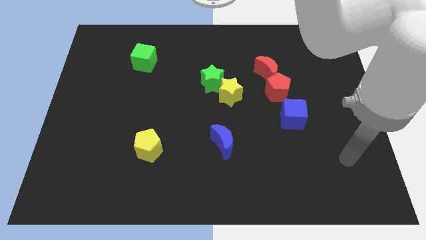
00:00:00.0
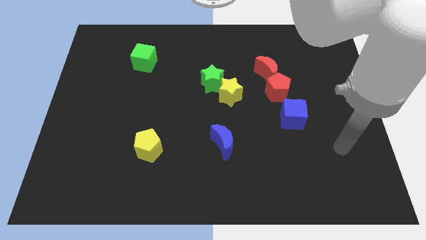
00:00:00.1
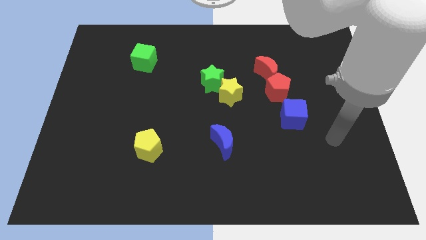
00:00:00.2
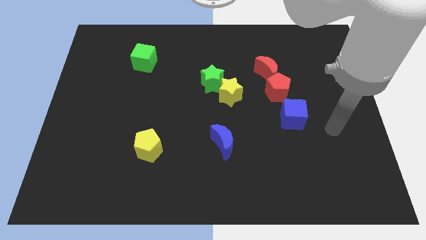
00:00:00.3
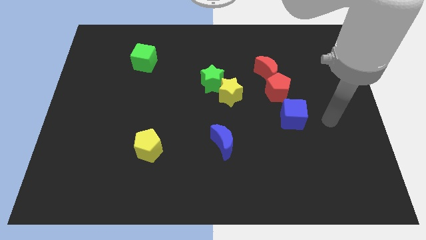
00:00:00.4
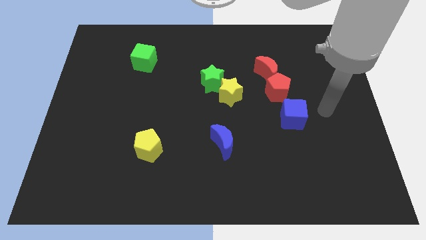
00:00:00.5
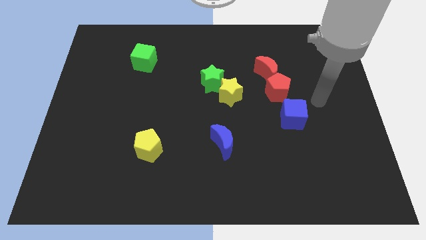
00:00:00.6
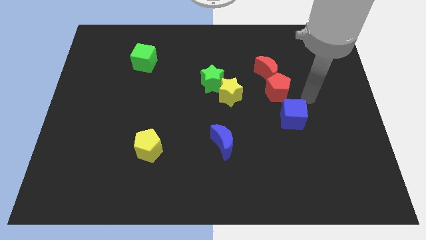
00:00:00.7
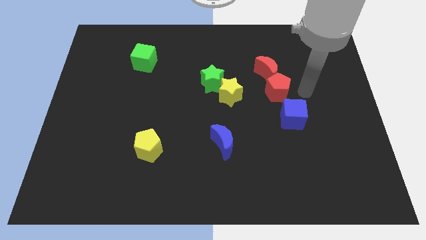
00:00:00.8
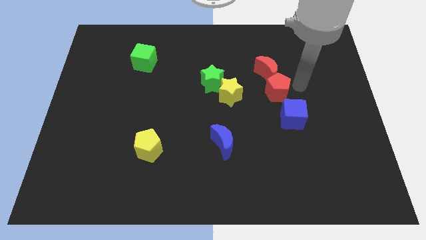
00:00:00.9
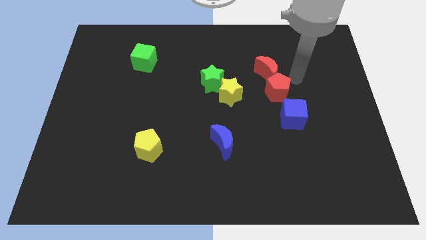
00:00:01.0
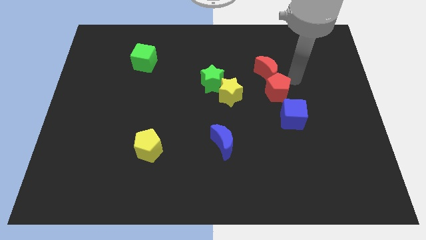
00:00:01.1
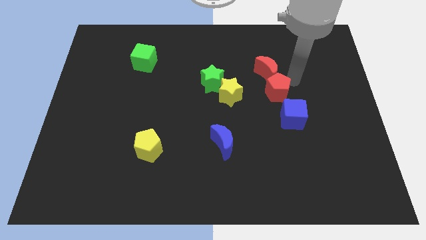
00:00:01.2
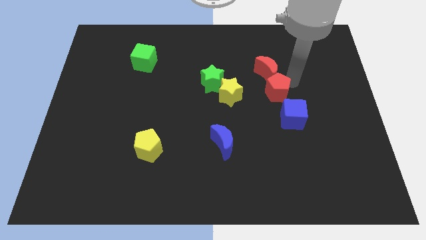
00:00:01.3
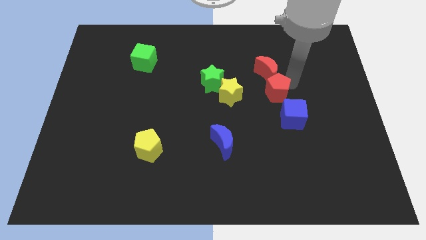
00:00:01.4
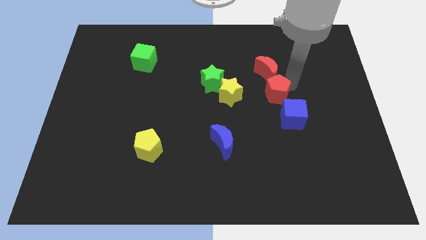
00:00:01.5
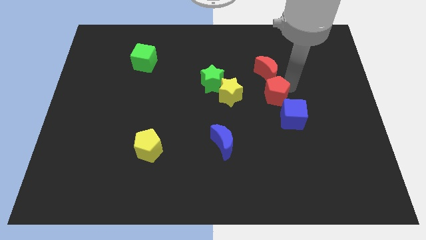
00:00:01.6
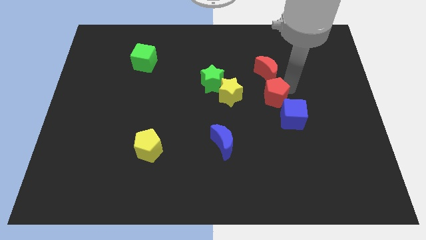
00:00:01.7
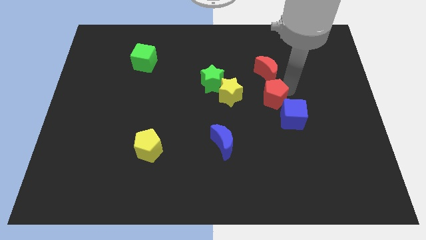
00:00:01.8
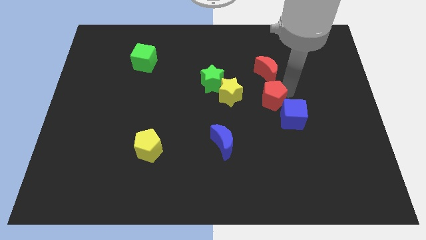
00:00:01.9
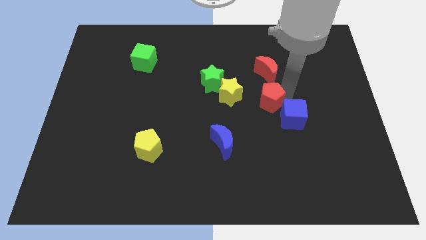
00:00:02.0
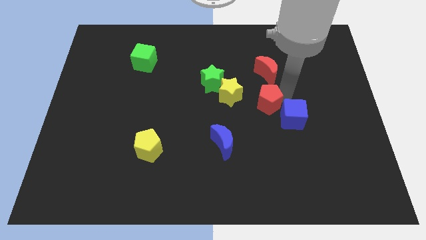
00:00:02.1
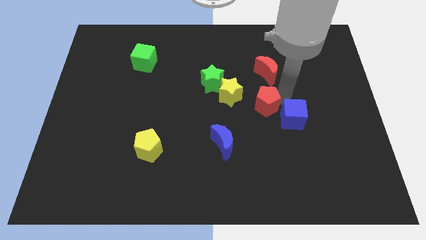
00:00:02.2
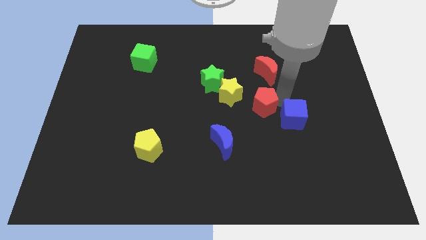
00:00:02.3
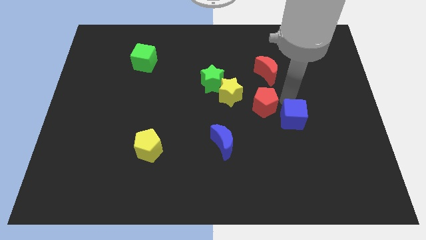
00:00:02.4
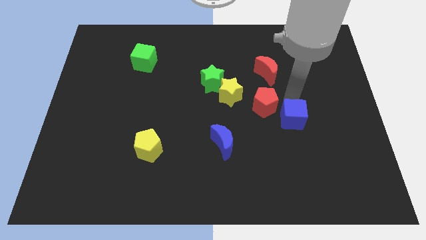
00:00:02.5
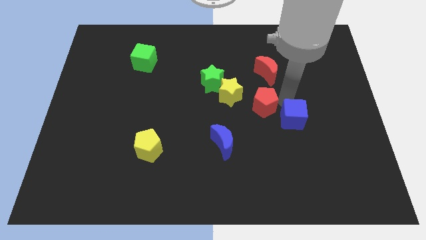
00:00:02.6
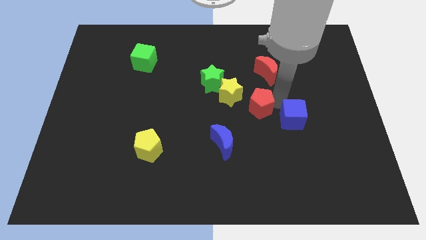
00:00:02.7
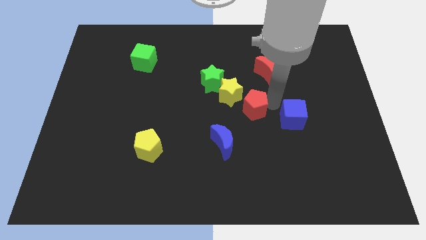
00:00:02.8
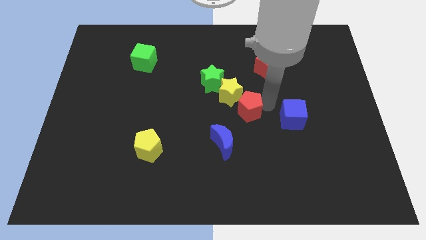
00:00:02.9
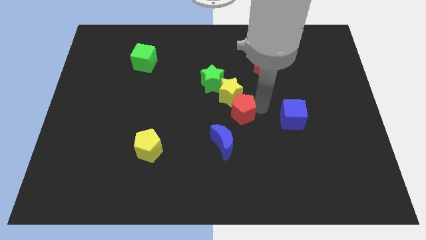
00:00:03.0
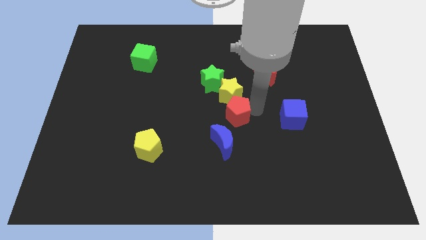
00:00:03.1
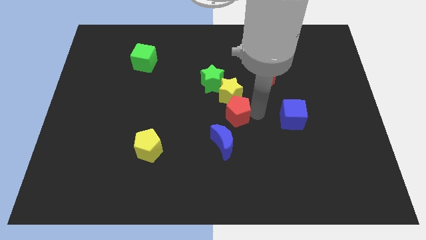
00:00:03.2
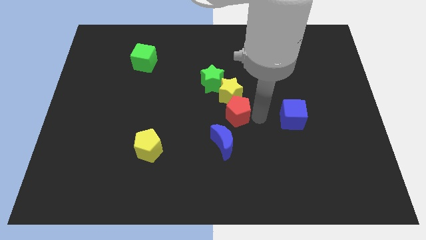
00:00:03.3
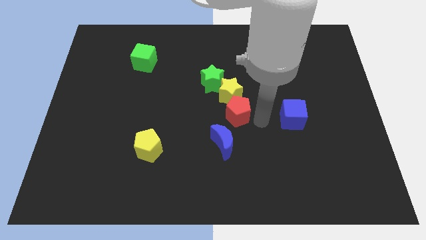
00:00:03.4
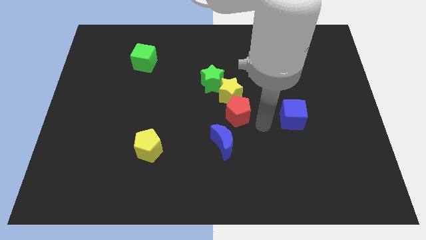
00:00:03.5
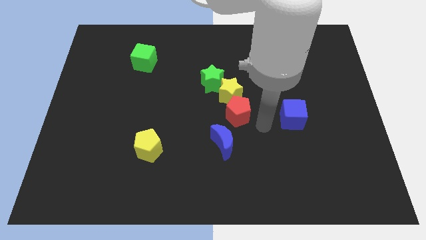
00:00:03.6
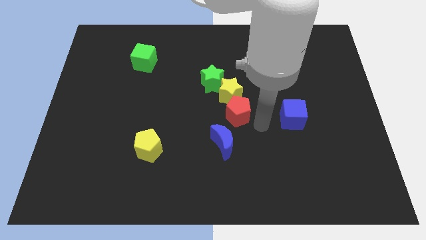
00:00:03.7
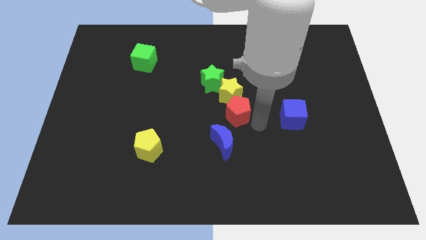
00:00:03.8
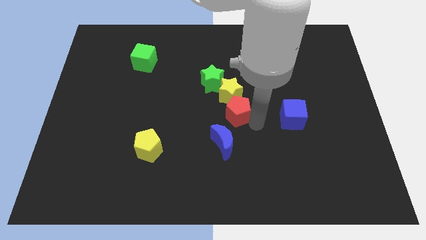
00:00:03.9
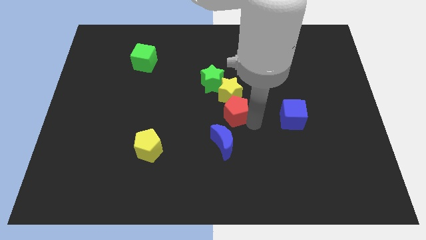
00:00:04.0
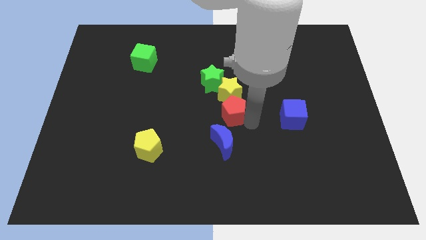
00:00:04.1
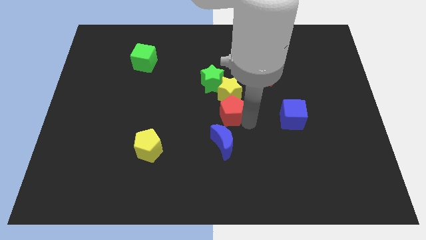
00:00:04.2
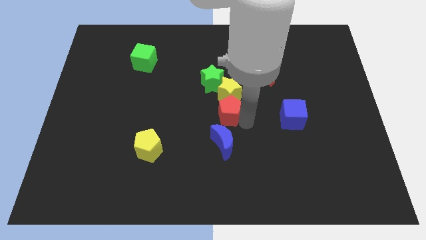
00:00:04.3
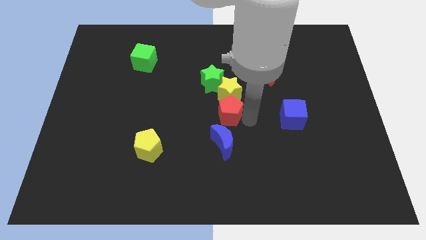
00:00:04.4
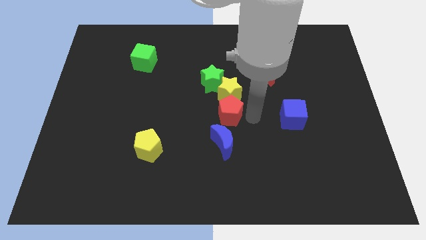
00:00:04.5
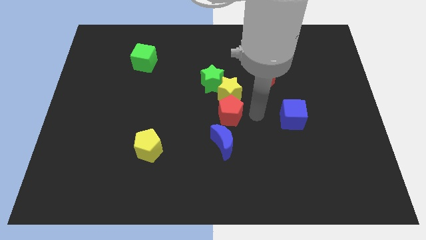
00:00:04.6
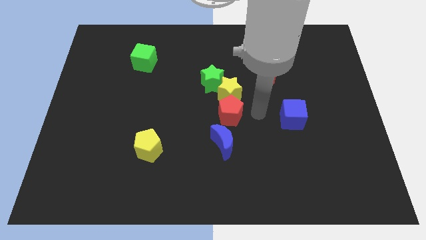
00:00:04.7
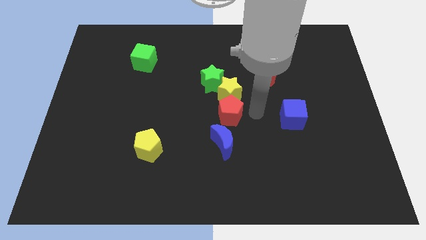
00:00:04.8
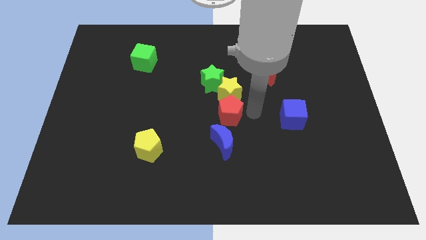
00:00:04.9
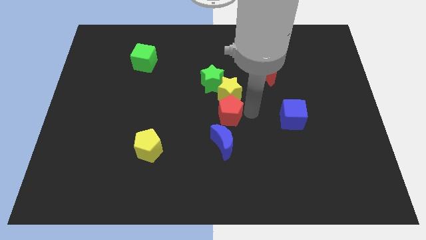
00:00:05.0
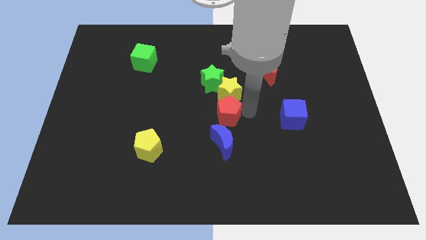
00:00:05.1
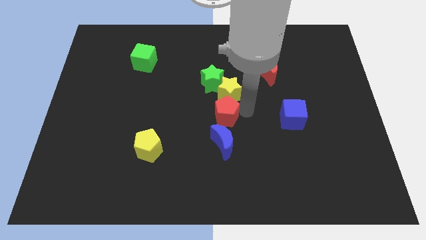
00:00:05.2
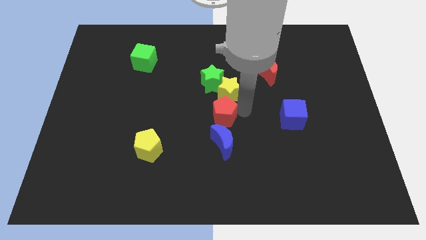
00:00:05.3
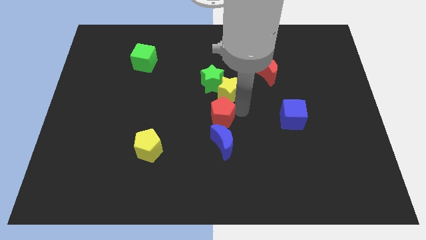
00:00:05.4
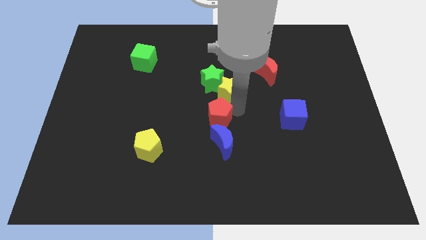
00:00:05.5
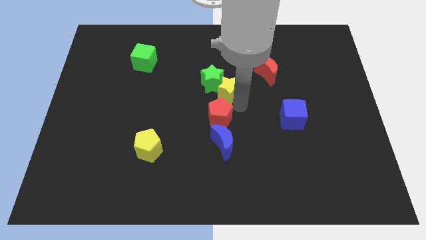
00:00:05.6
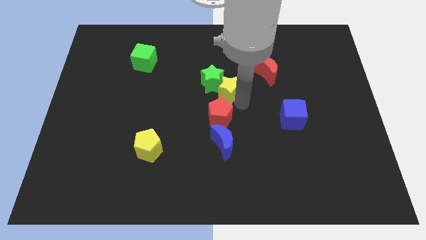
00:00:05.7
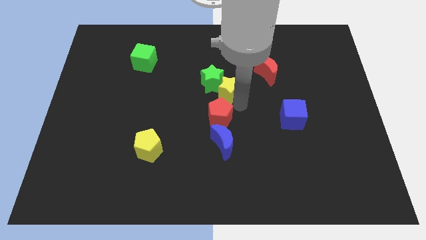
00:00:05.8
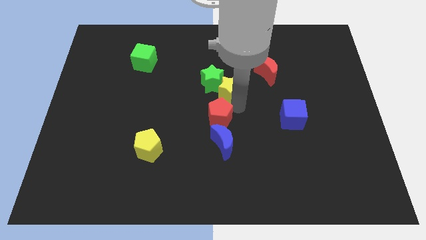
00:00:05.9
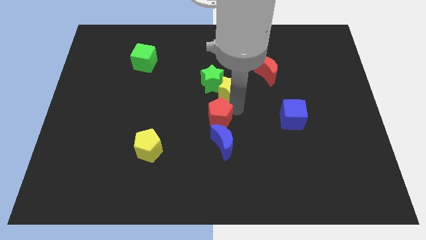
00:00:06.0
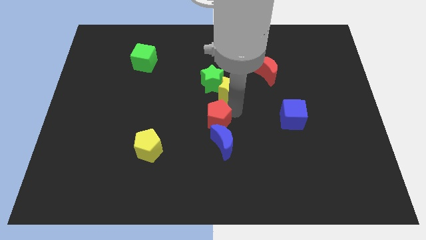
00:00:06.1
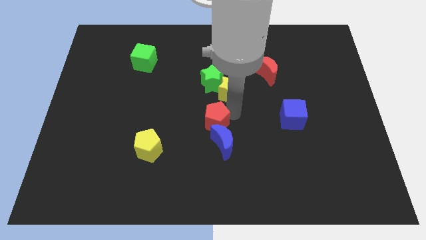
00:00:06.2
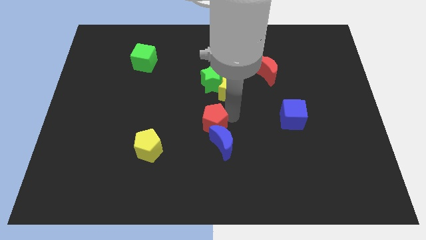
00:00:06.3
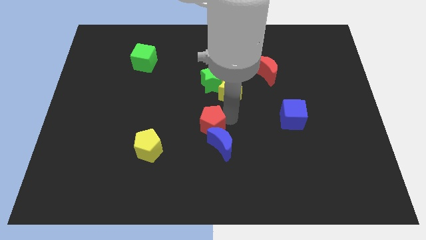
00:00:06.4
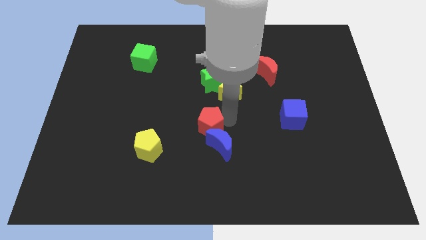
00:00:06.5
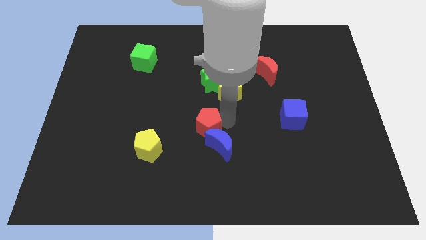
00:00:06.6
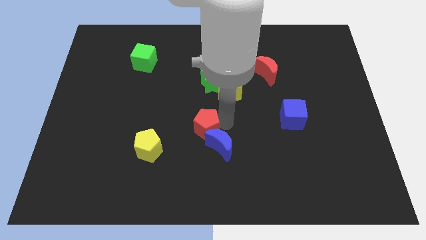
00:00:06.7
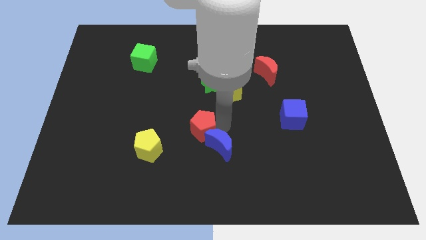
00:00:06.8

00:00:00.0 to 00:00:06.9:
move the red pentagon diagonally downwards and to the left

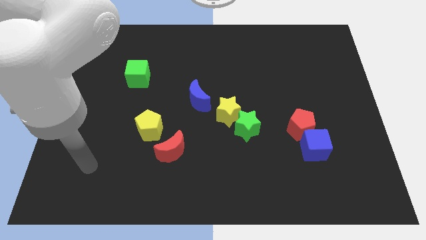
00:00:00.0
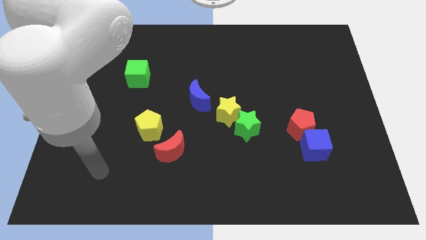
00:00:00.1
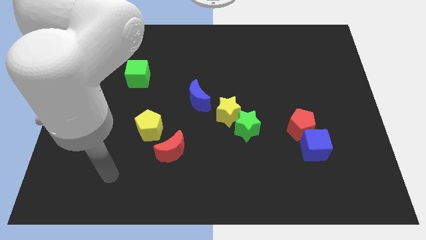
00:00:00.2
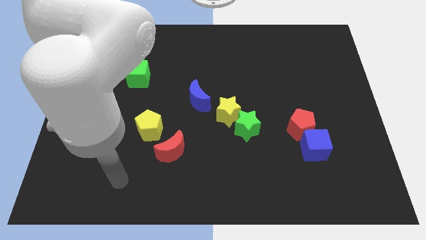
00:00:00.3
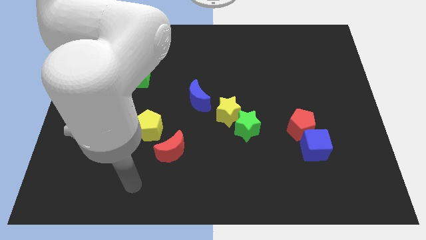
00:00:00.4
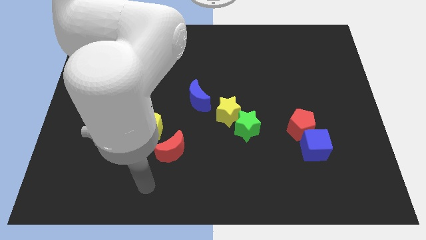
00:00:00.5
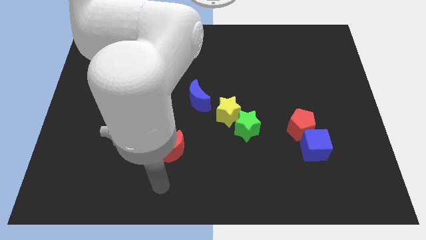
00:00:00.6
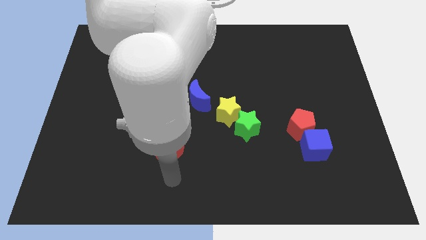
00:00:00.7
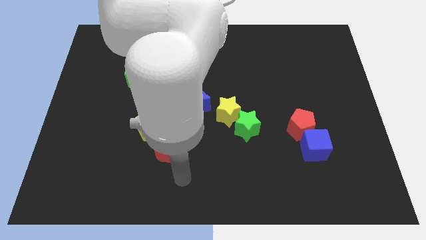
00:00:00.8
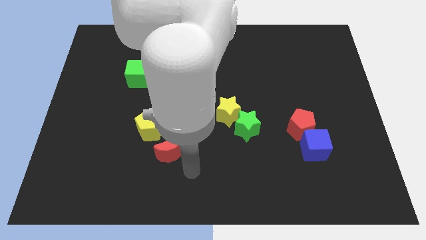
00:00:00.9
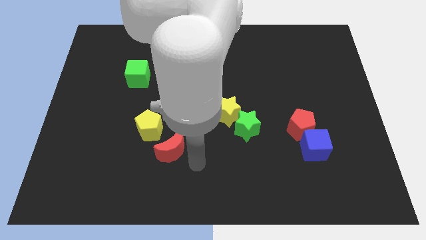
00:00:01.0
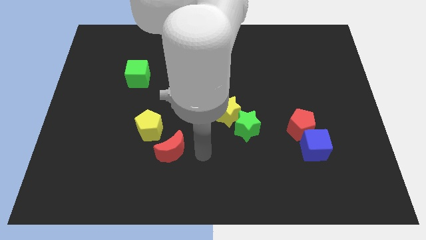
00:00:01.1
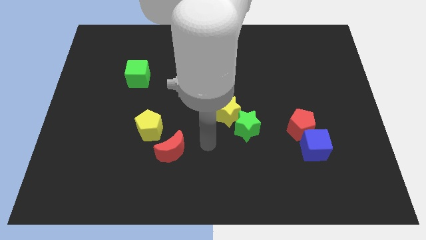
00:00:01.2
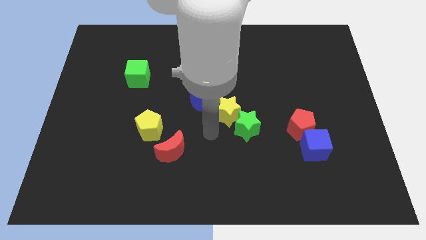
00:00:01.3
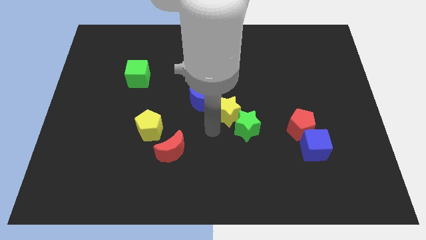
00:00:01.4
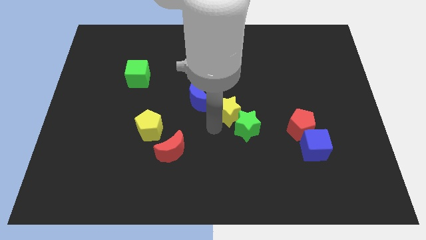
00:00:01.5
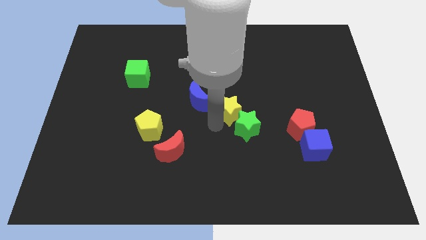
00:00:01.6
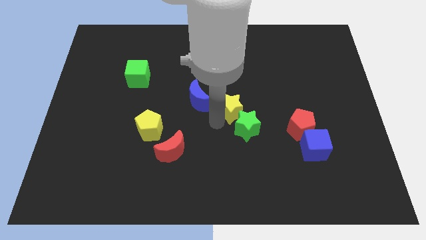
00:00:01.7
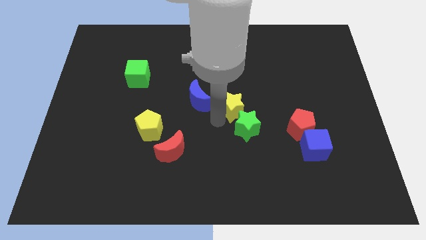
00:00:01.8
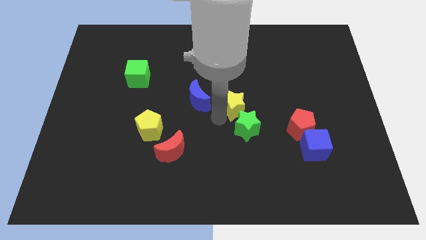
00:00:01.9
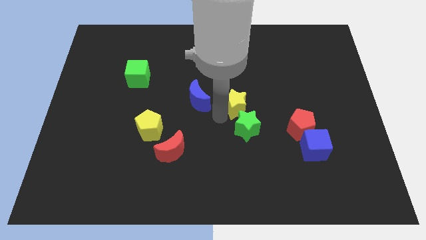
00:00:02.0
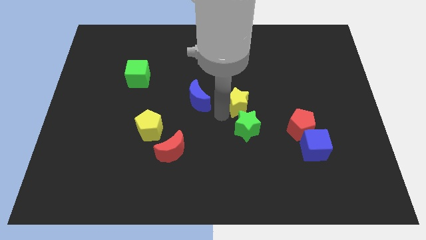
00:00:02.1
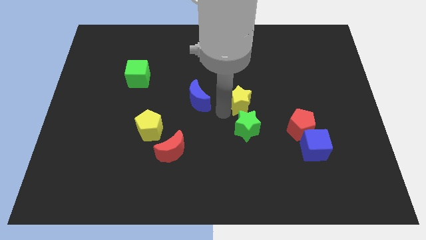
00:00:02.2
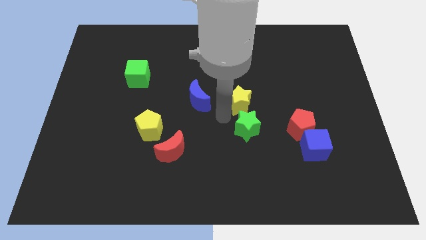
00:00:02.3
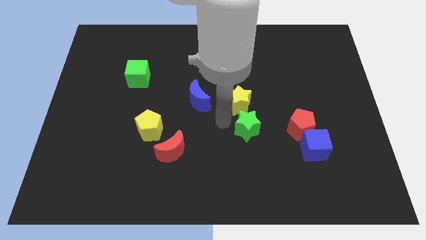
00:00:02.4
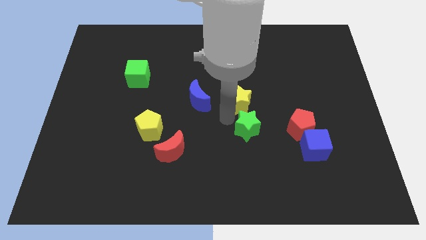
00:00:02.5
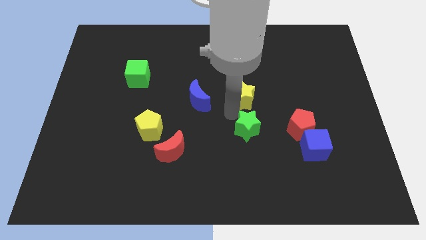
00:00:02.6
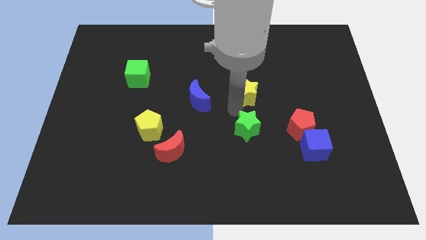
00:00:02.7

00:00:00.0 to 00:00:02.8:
slightly slide the yellow star up and to the right diagonally
